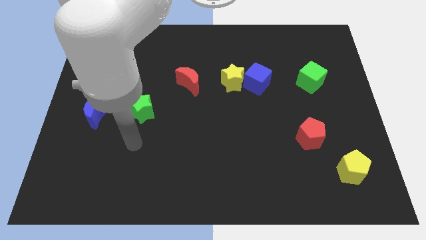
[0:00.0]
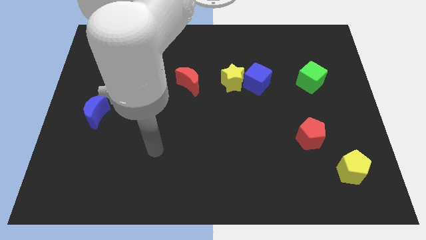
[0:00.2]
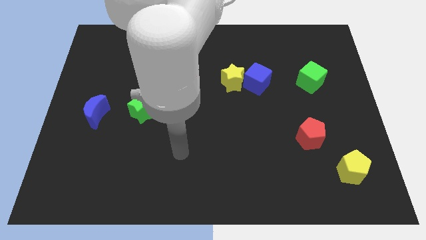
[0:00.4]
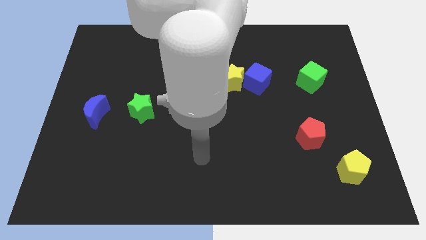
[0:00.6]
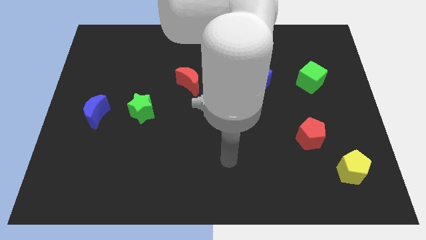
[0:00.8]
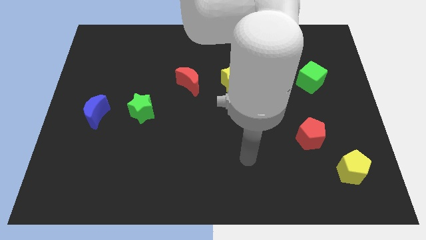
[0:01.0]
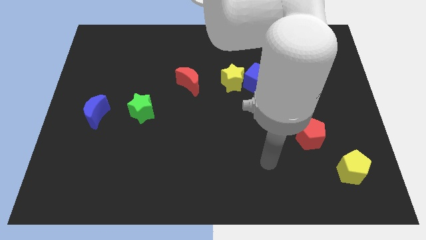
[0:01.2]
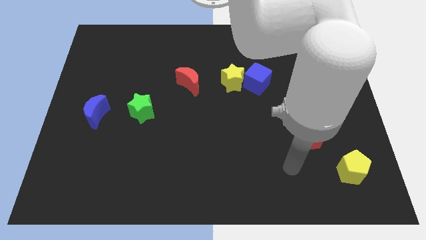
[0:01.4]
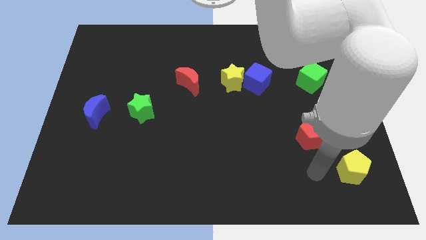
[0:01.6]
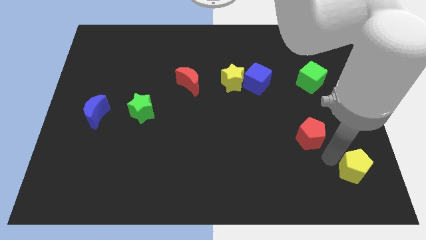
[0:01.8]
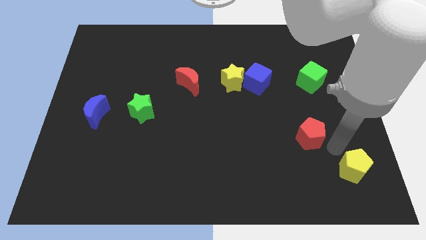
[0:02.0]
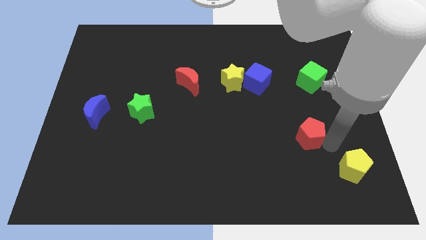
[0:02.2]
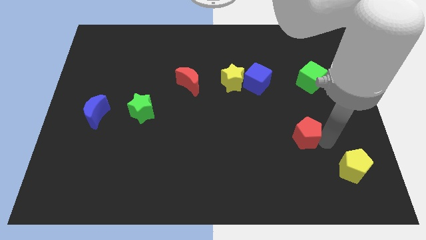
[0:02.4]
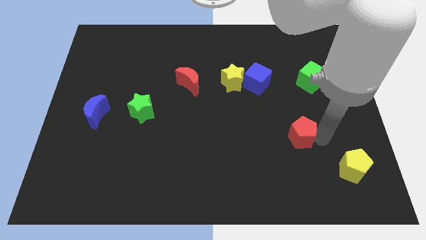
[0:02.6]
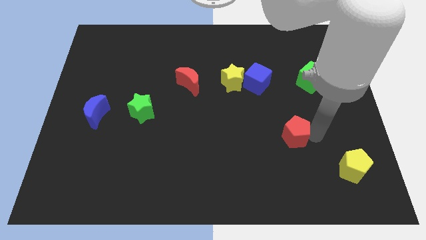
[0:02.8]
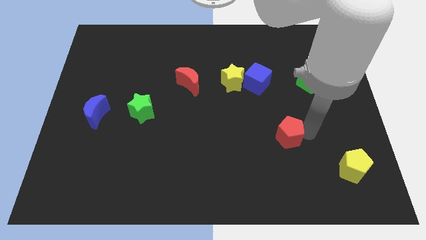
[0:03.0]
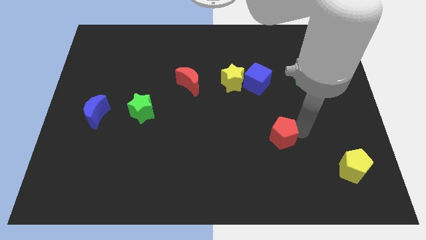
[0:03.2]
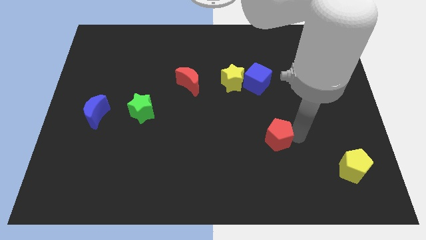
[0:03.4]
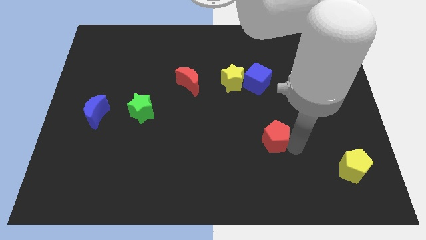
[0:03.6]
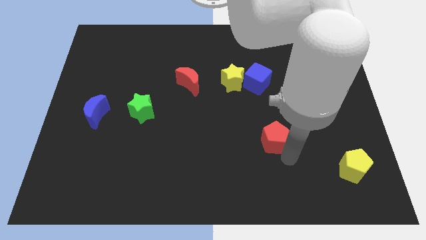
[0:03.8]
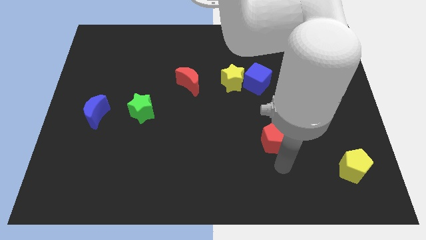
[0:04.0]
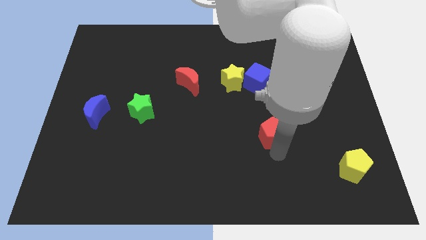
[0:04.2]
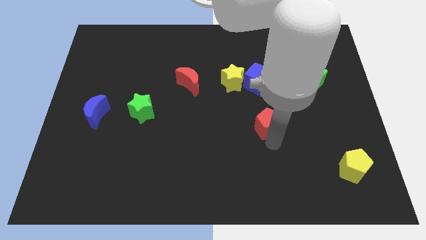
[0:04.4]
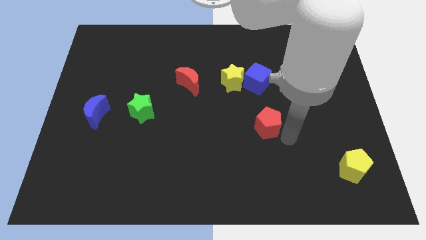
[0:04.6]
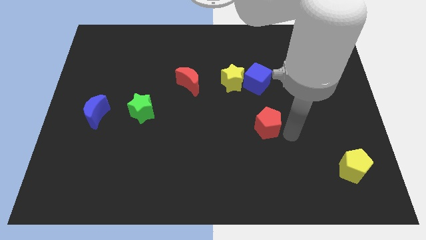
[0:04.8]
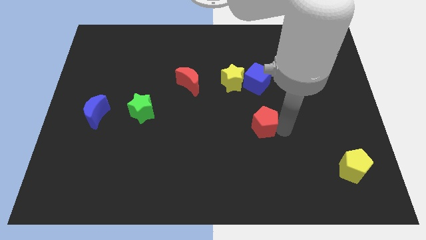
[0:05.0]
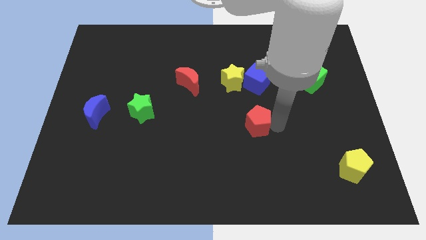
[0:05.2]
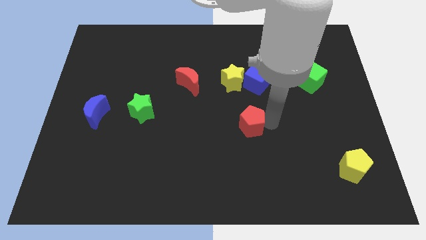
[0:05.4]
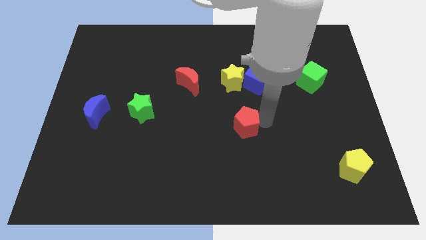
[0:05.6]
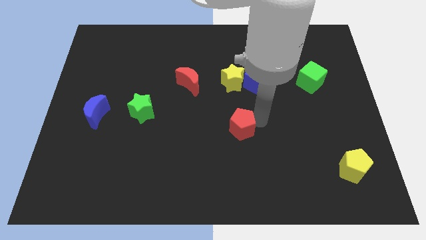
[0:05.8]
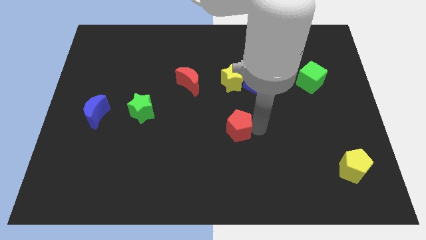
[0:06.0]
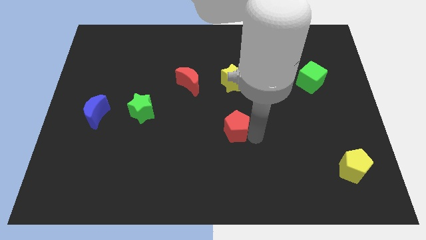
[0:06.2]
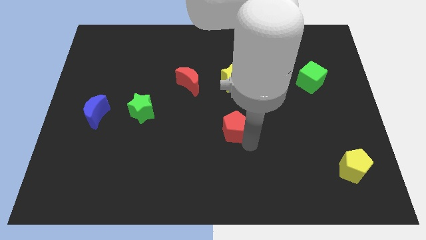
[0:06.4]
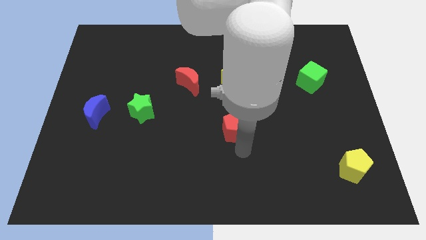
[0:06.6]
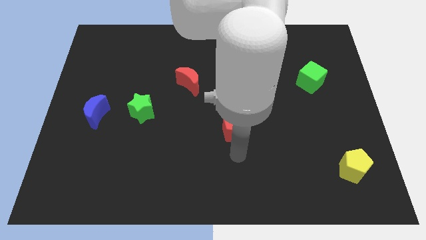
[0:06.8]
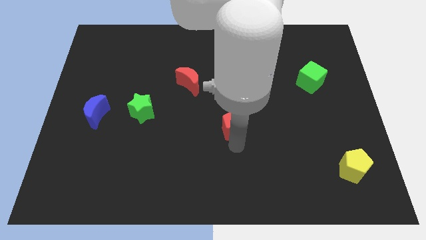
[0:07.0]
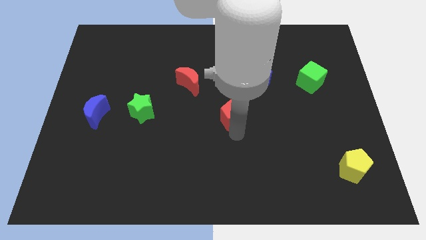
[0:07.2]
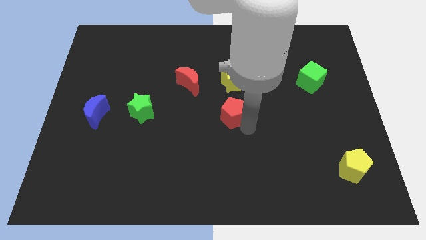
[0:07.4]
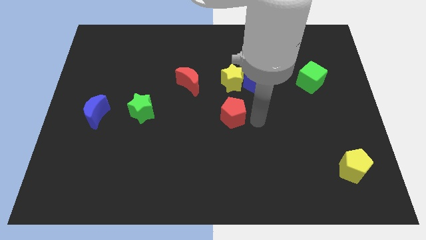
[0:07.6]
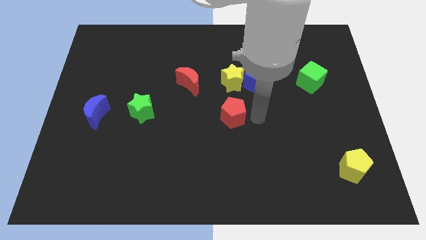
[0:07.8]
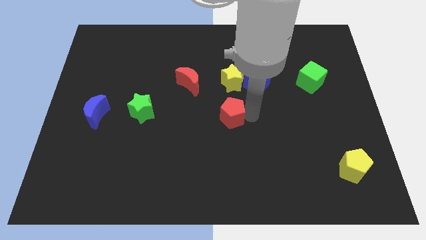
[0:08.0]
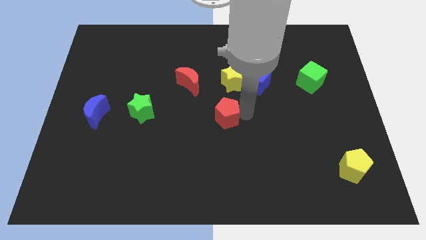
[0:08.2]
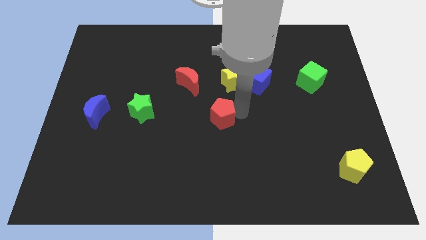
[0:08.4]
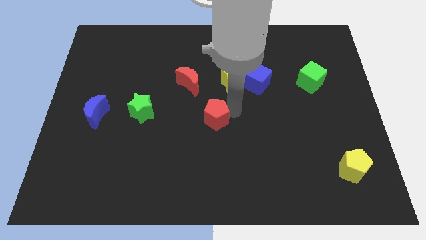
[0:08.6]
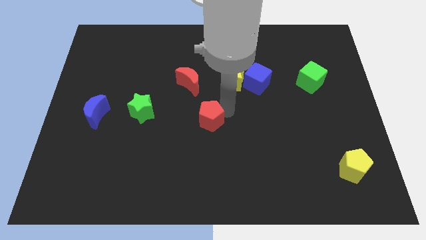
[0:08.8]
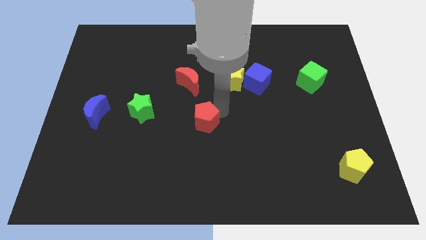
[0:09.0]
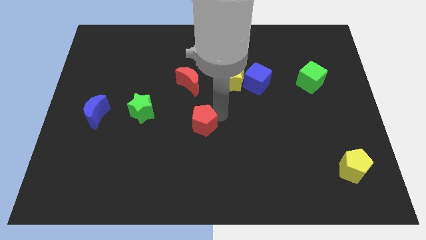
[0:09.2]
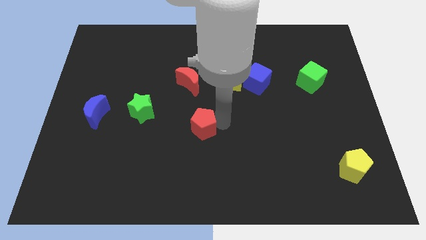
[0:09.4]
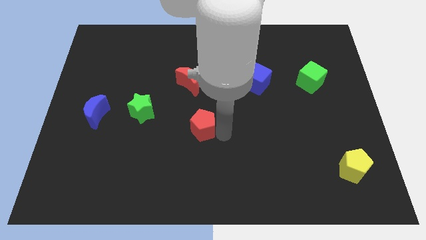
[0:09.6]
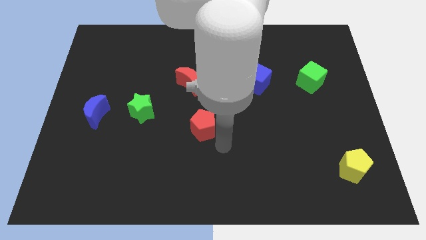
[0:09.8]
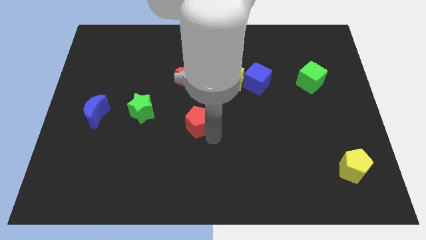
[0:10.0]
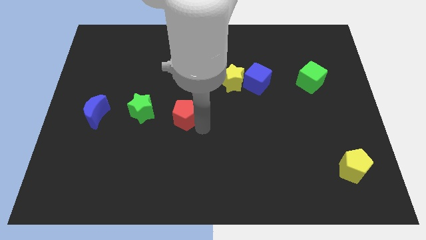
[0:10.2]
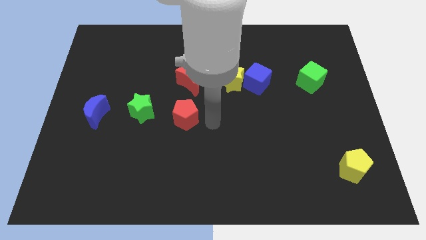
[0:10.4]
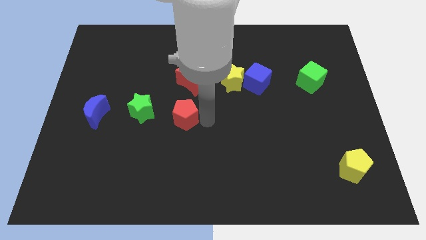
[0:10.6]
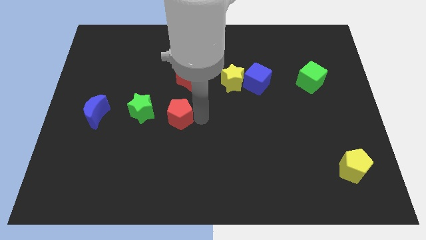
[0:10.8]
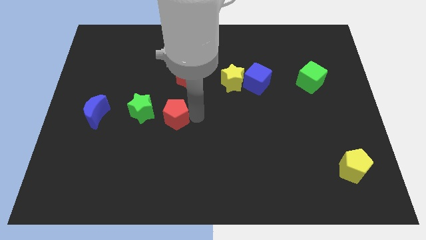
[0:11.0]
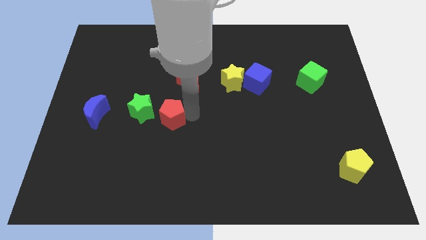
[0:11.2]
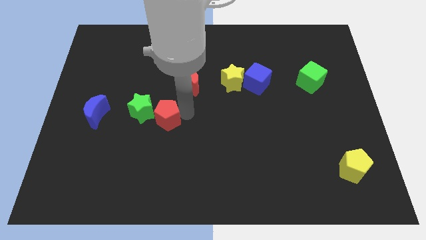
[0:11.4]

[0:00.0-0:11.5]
push the red pentagon to the green star

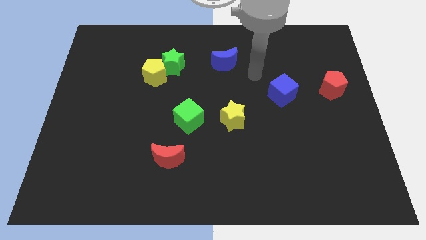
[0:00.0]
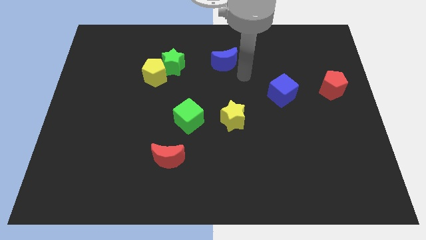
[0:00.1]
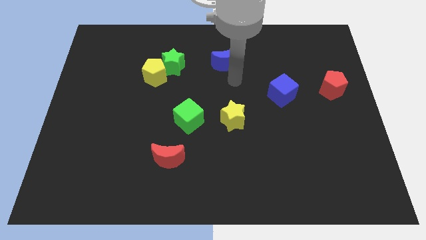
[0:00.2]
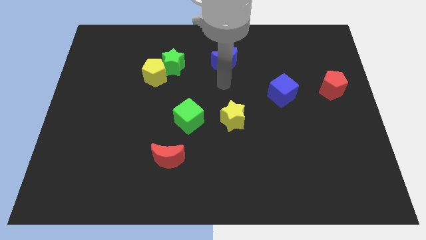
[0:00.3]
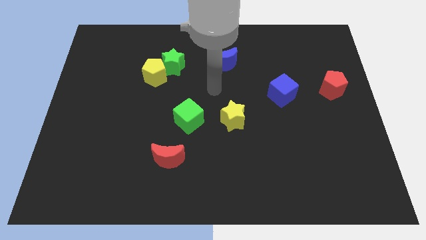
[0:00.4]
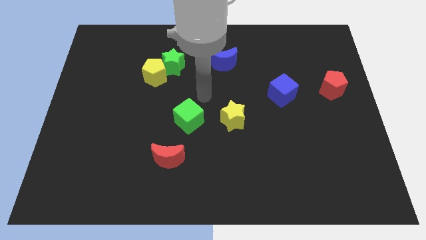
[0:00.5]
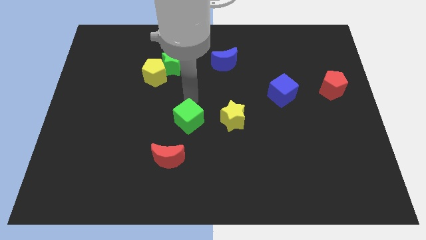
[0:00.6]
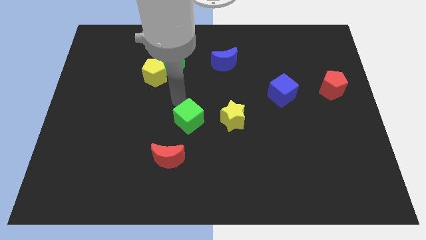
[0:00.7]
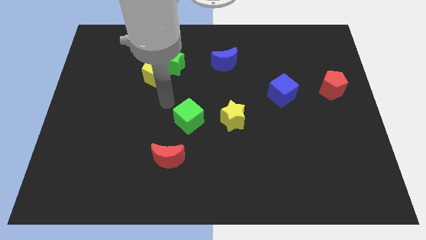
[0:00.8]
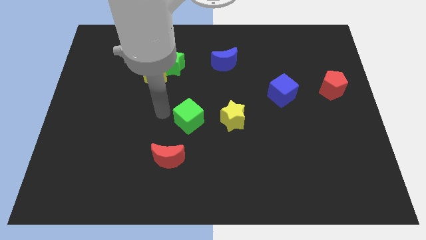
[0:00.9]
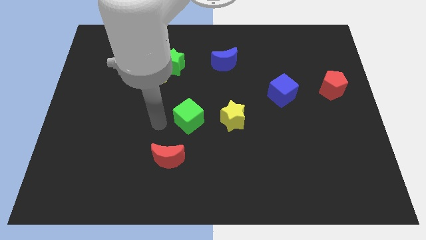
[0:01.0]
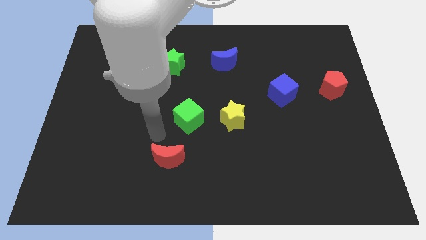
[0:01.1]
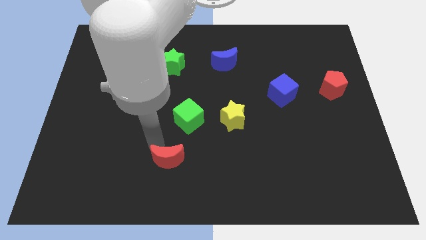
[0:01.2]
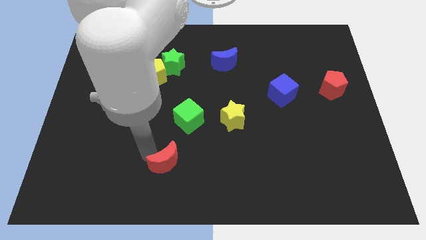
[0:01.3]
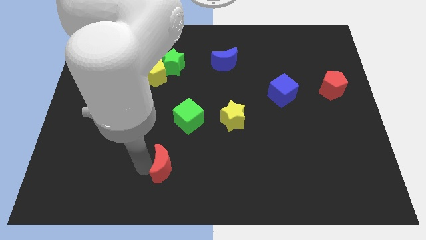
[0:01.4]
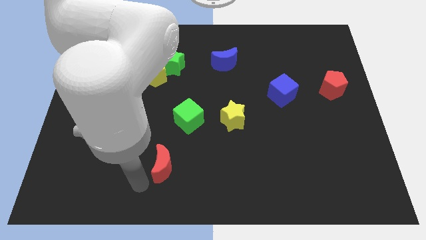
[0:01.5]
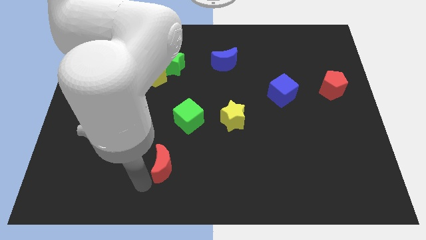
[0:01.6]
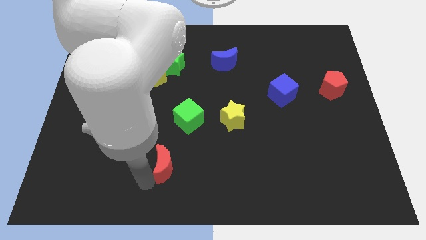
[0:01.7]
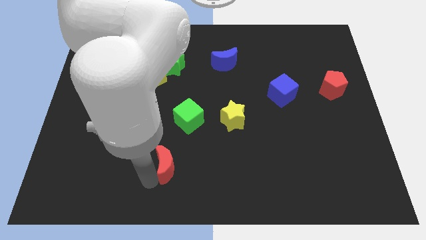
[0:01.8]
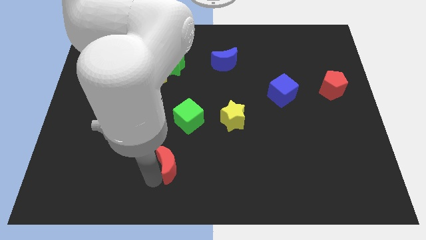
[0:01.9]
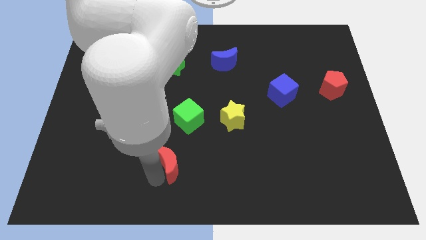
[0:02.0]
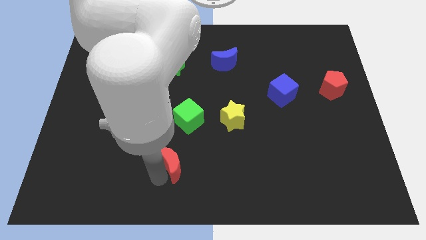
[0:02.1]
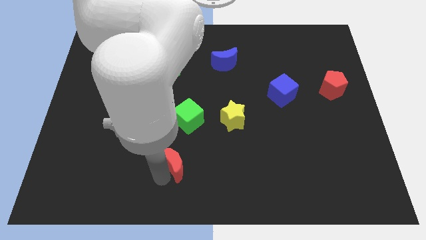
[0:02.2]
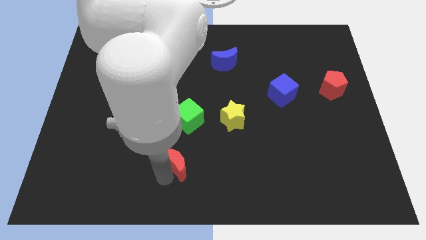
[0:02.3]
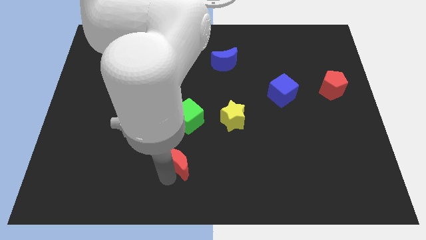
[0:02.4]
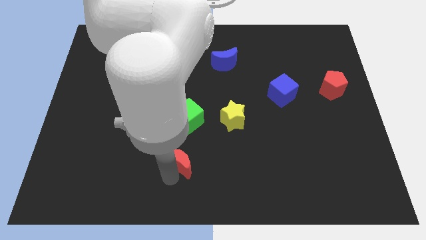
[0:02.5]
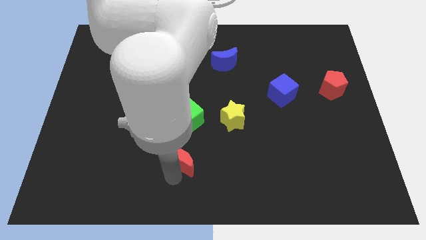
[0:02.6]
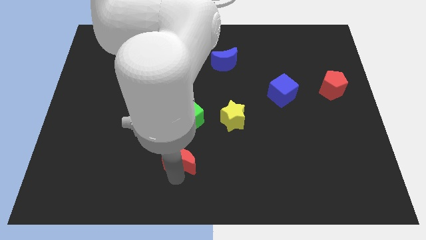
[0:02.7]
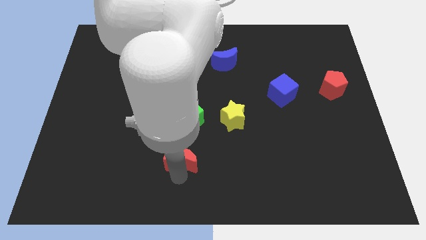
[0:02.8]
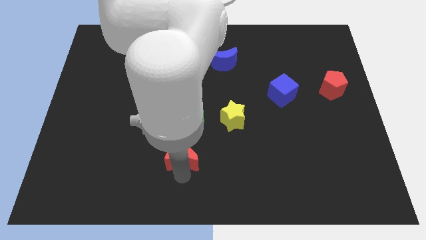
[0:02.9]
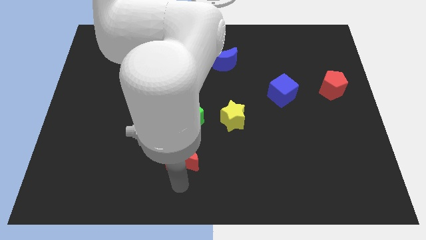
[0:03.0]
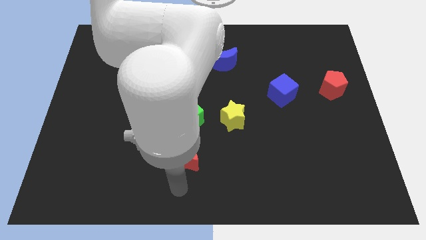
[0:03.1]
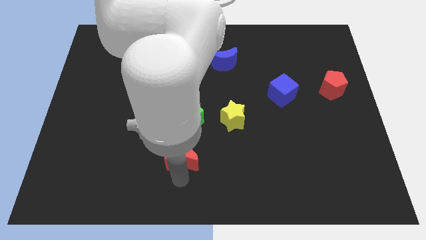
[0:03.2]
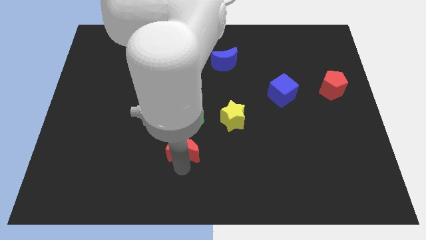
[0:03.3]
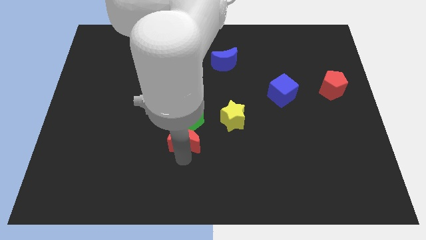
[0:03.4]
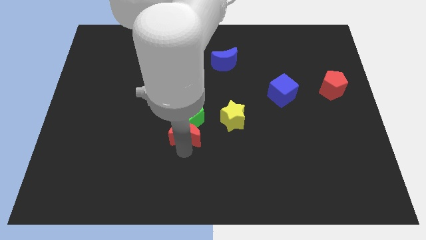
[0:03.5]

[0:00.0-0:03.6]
put the red moon towards the green cube
